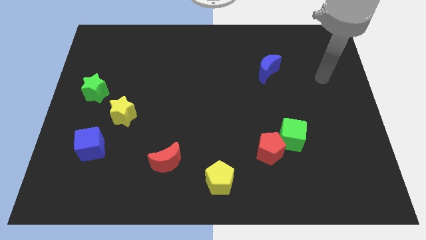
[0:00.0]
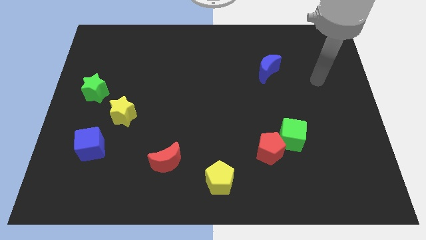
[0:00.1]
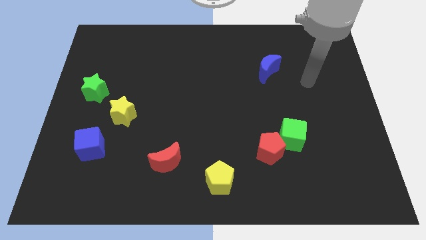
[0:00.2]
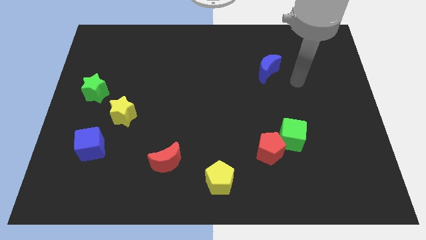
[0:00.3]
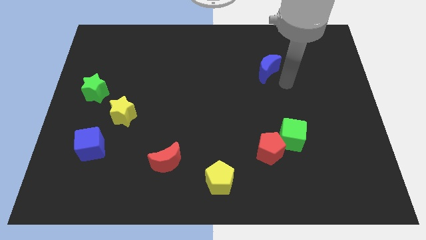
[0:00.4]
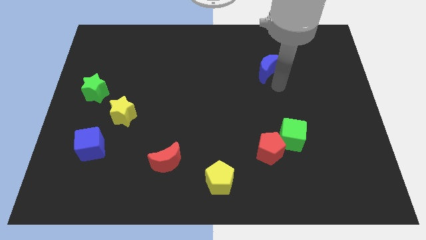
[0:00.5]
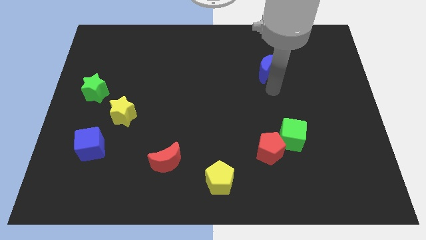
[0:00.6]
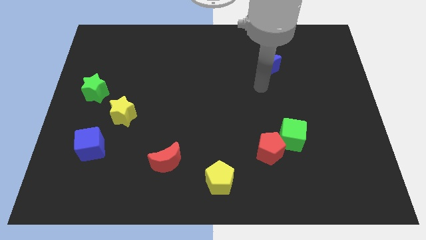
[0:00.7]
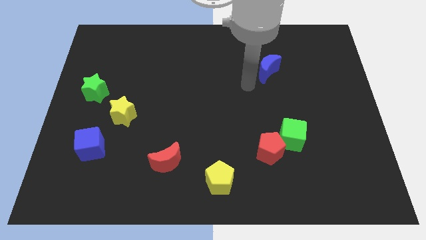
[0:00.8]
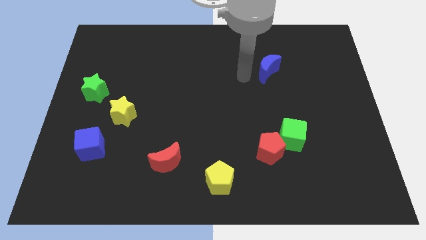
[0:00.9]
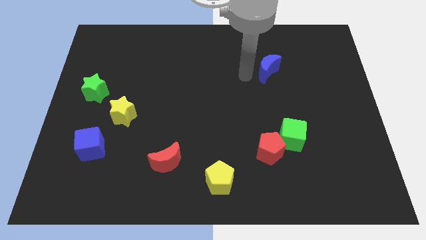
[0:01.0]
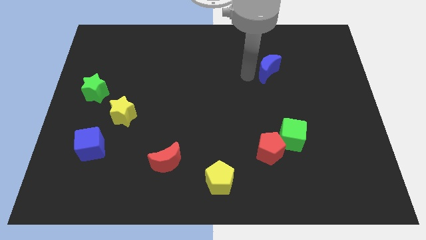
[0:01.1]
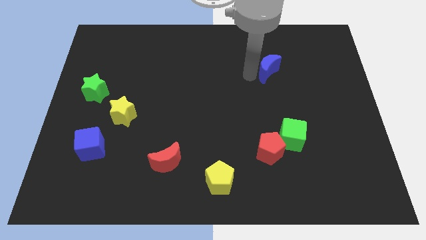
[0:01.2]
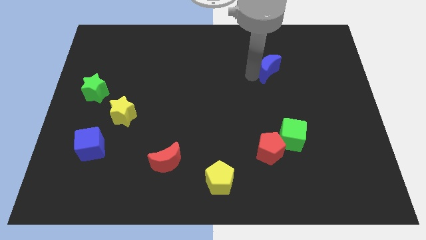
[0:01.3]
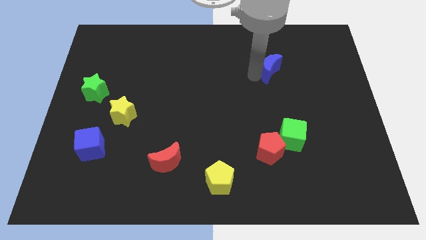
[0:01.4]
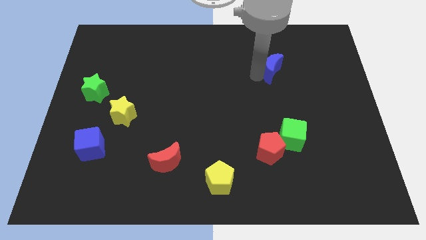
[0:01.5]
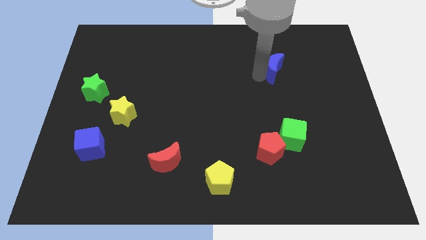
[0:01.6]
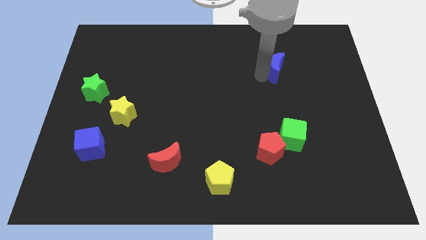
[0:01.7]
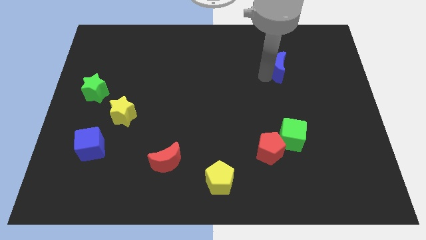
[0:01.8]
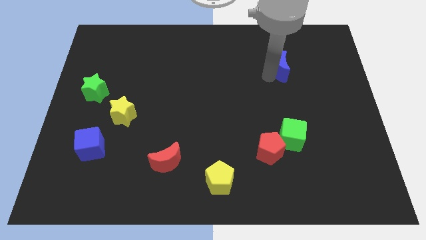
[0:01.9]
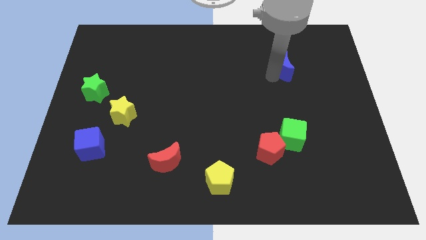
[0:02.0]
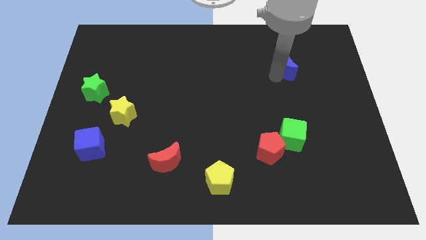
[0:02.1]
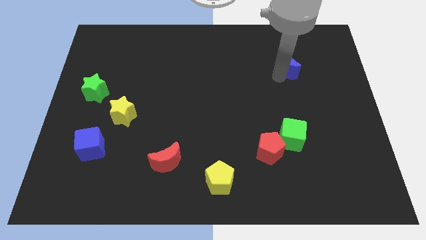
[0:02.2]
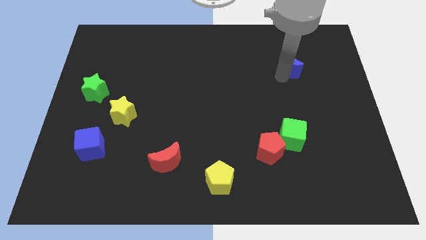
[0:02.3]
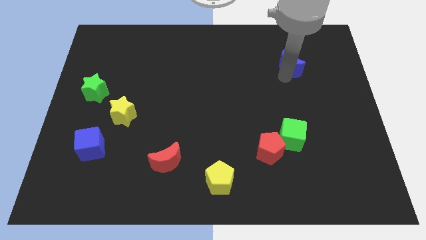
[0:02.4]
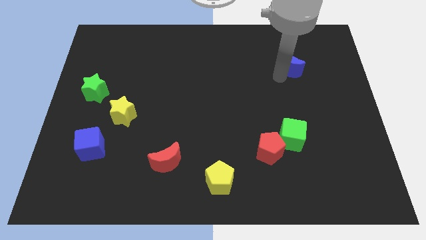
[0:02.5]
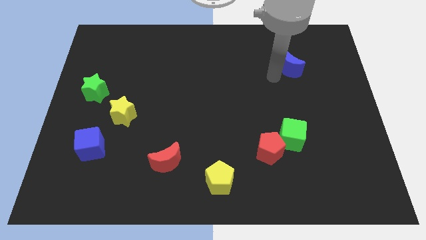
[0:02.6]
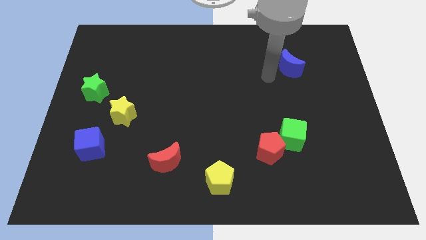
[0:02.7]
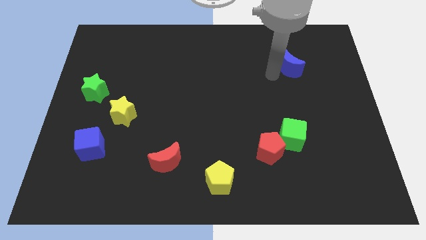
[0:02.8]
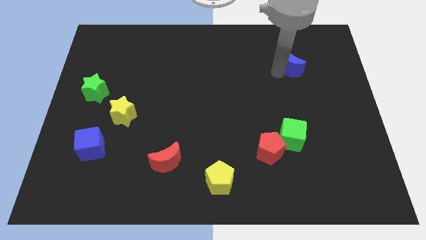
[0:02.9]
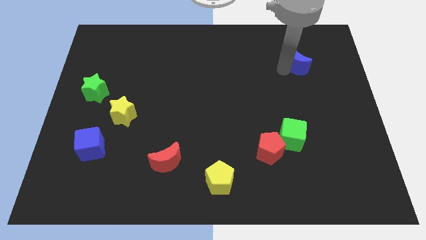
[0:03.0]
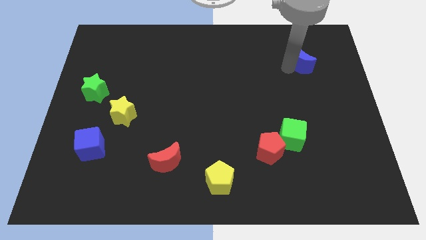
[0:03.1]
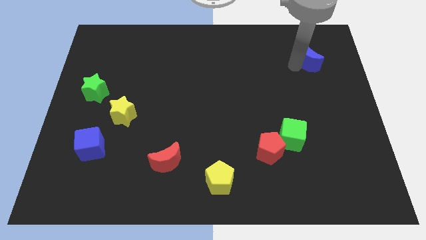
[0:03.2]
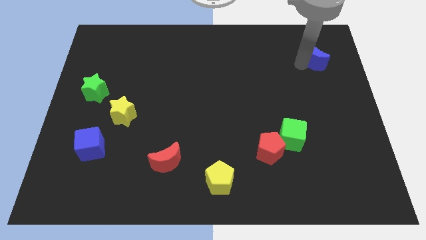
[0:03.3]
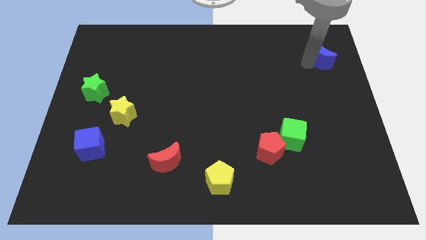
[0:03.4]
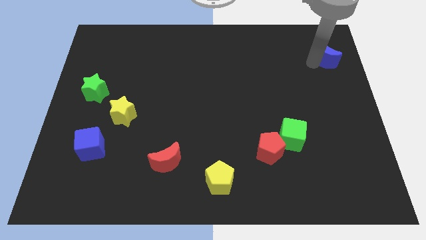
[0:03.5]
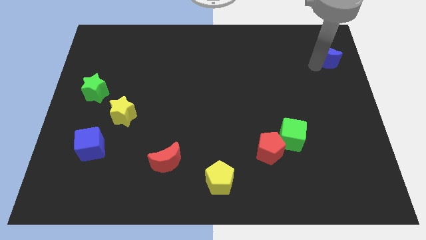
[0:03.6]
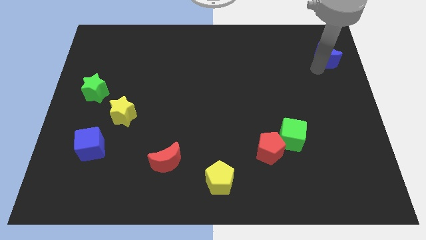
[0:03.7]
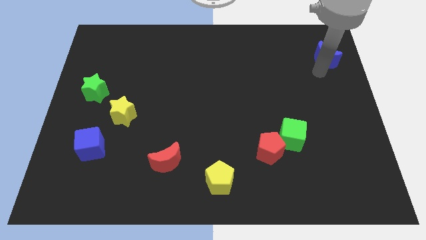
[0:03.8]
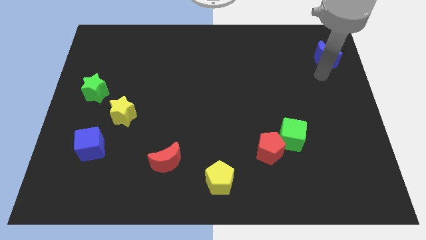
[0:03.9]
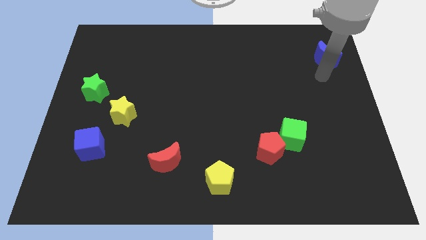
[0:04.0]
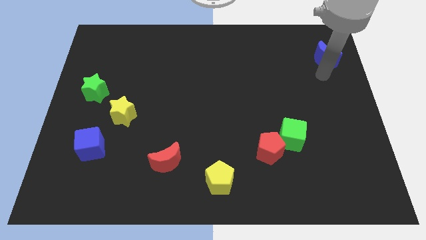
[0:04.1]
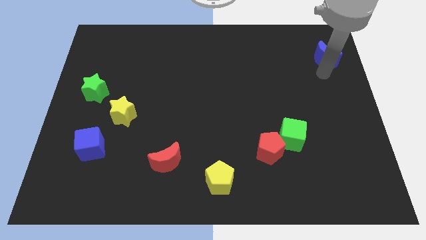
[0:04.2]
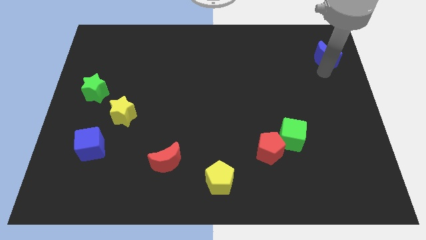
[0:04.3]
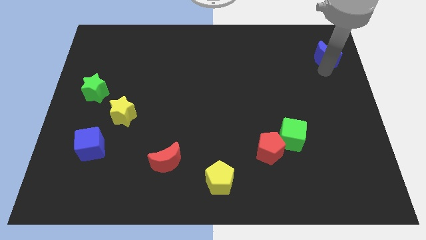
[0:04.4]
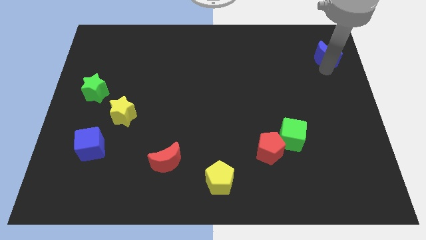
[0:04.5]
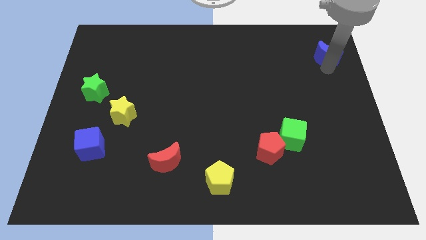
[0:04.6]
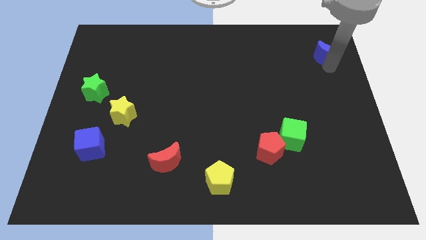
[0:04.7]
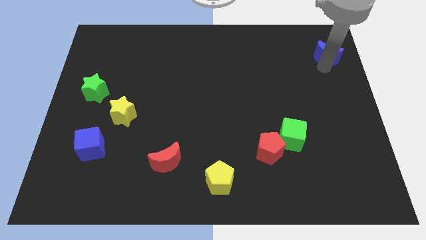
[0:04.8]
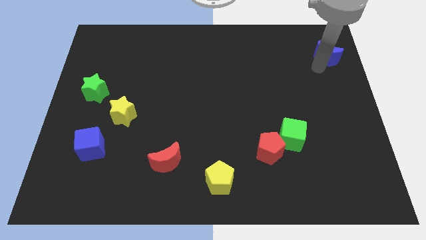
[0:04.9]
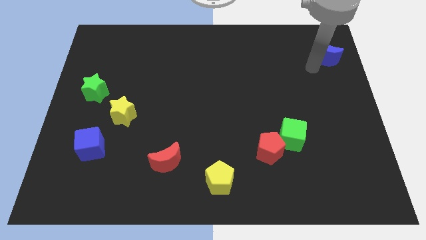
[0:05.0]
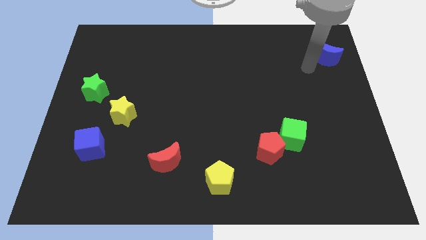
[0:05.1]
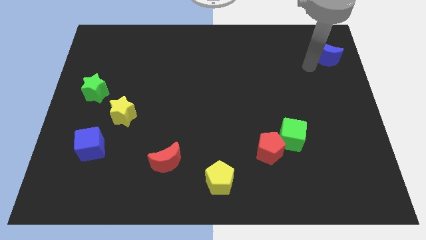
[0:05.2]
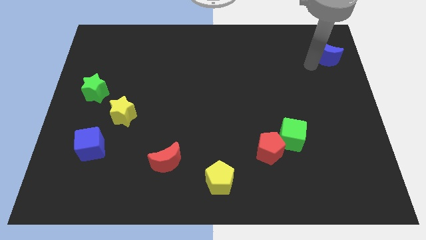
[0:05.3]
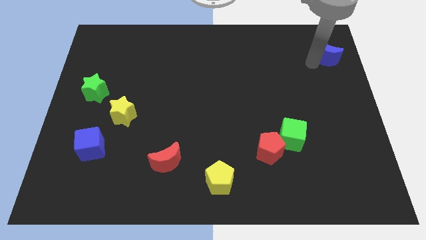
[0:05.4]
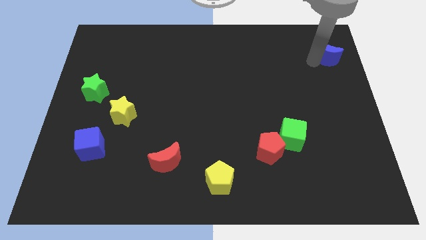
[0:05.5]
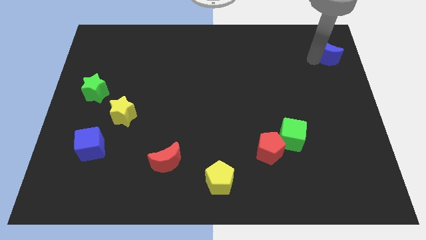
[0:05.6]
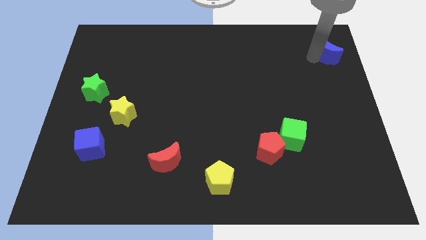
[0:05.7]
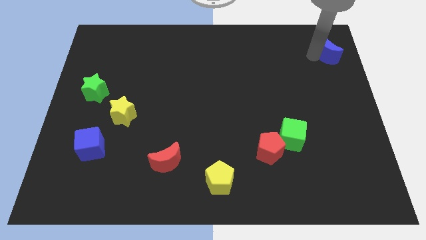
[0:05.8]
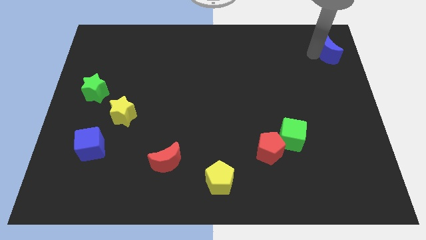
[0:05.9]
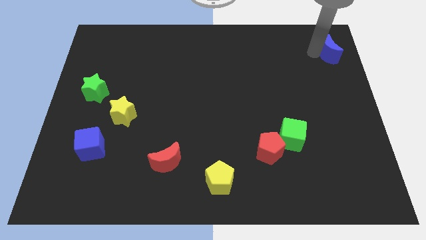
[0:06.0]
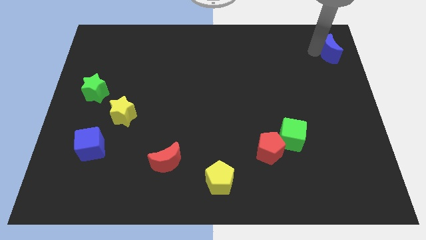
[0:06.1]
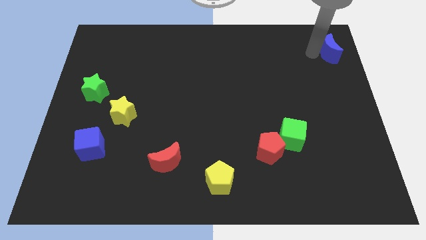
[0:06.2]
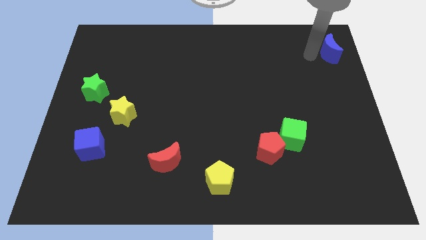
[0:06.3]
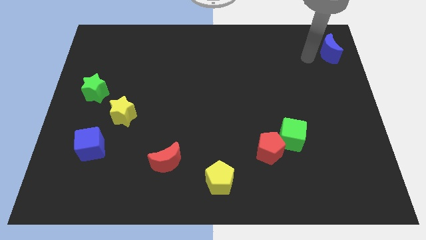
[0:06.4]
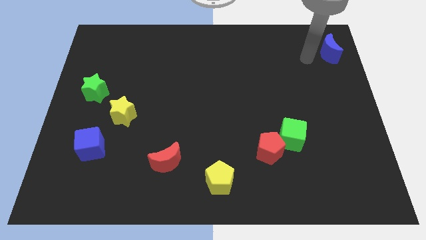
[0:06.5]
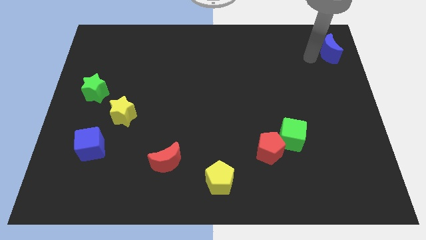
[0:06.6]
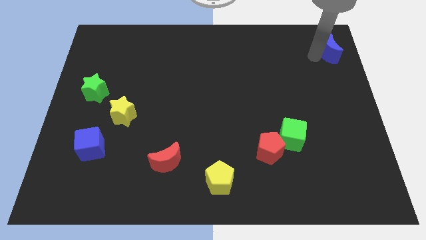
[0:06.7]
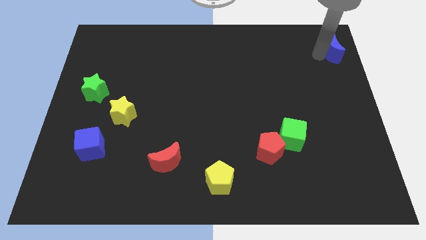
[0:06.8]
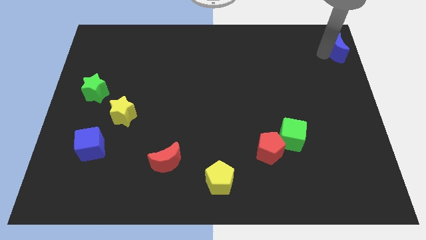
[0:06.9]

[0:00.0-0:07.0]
move the blue moon to the upper right corner
